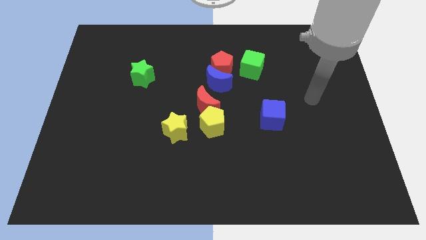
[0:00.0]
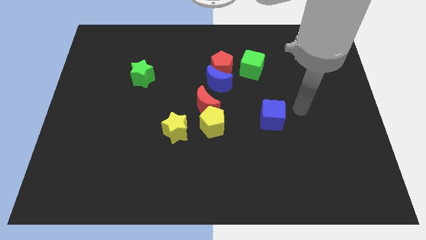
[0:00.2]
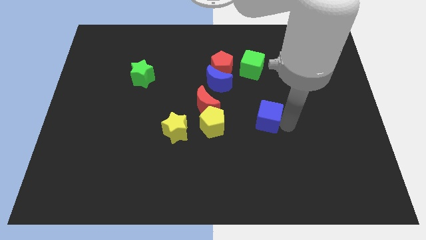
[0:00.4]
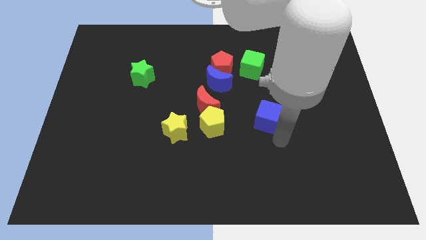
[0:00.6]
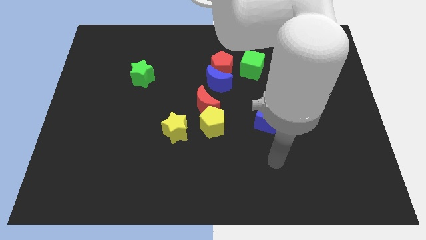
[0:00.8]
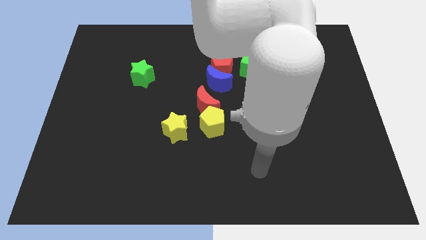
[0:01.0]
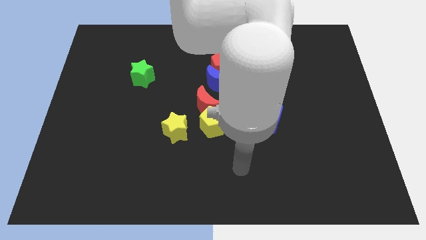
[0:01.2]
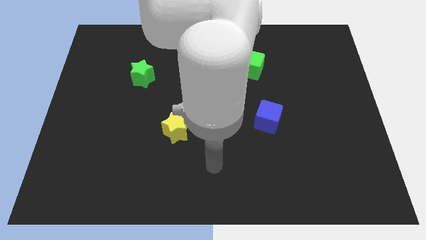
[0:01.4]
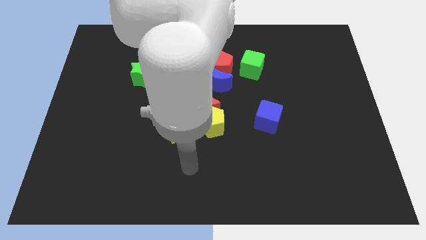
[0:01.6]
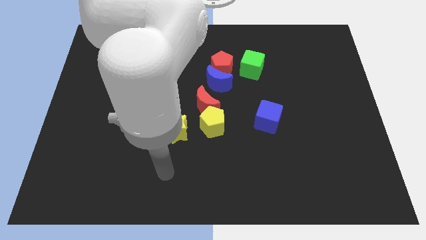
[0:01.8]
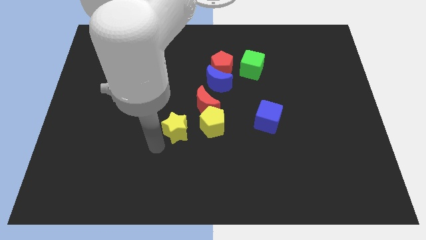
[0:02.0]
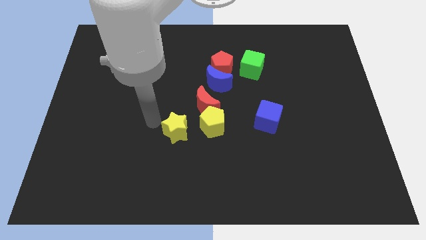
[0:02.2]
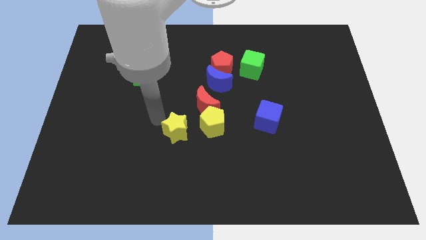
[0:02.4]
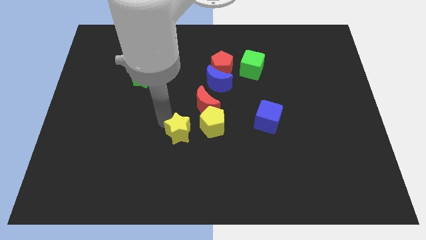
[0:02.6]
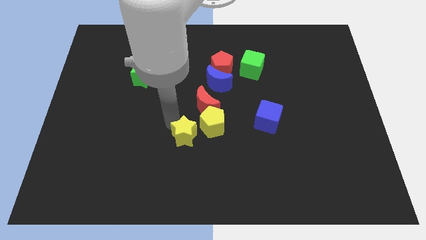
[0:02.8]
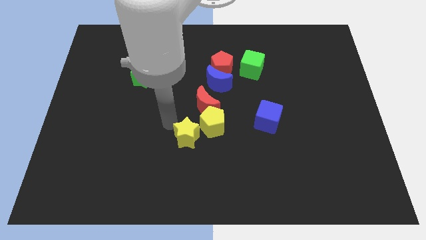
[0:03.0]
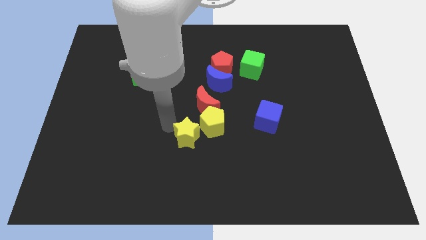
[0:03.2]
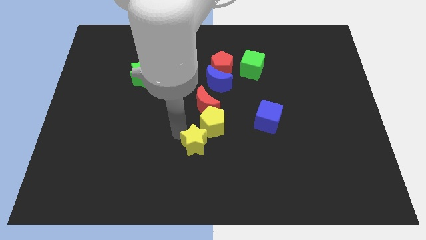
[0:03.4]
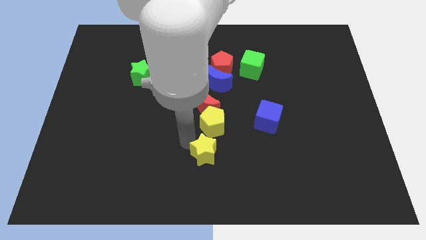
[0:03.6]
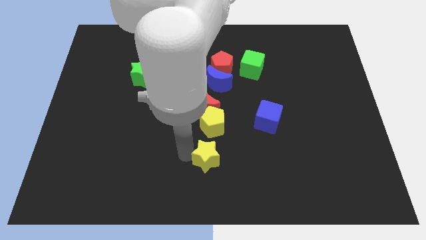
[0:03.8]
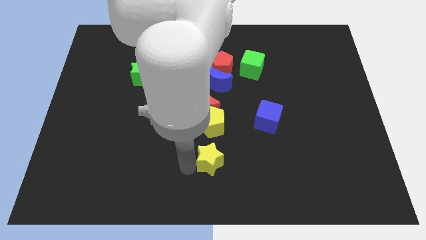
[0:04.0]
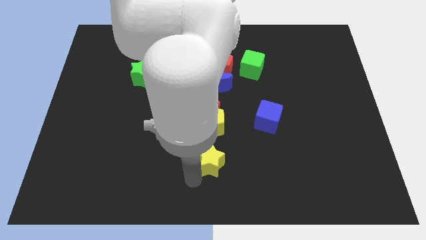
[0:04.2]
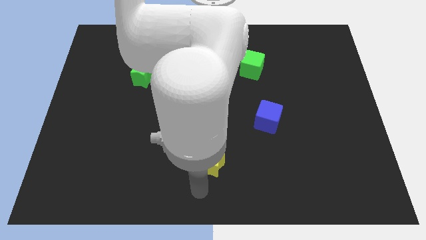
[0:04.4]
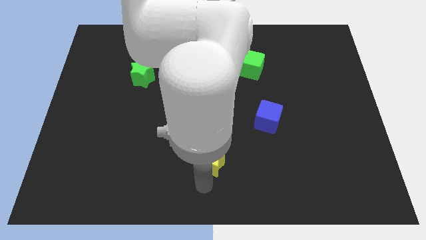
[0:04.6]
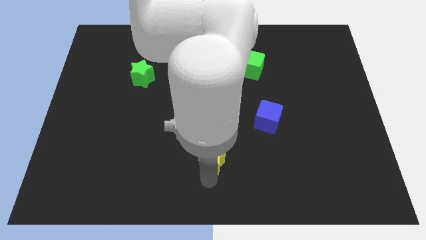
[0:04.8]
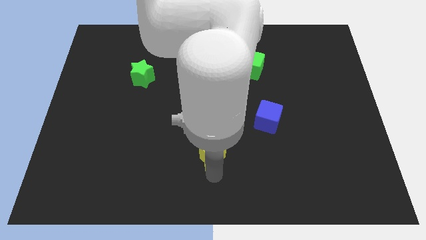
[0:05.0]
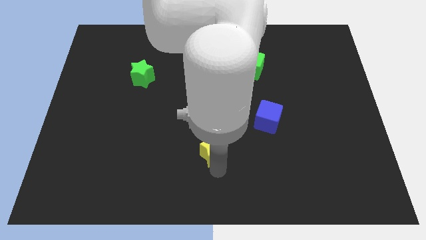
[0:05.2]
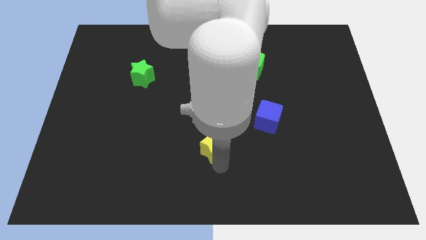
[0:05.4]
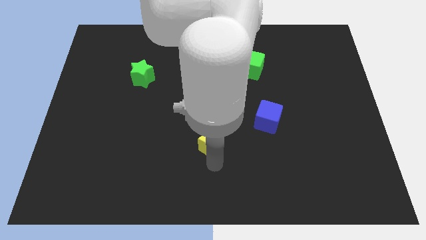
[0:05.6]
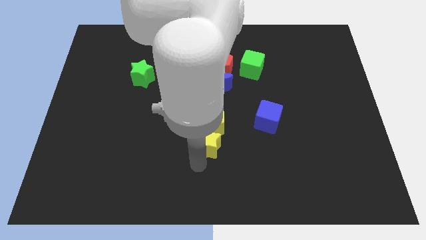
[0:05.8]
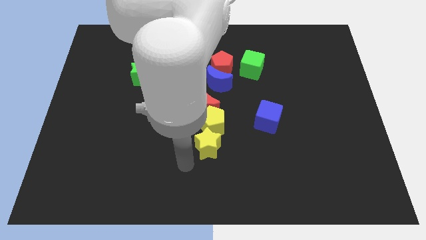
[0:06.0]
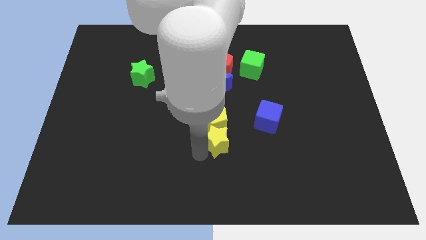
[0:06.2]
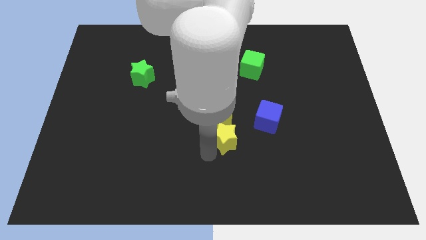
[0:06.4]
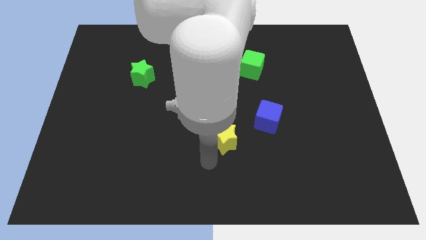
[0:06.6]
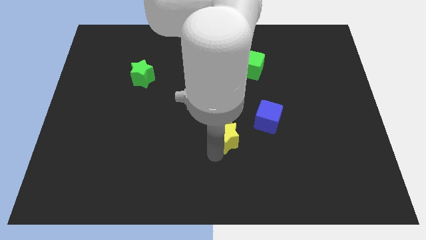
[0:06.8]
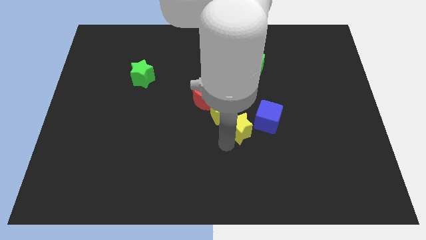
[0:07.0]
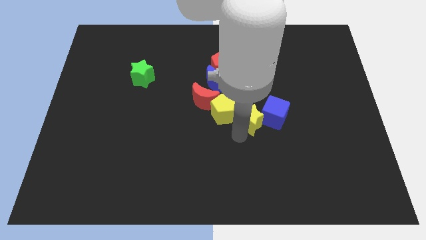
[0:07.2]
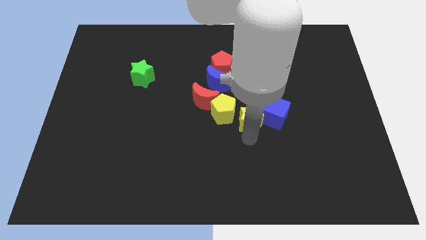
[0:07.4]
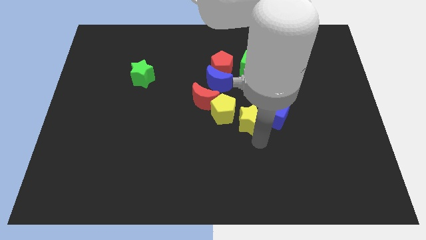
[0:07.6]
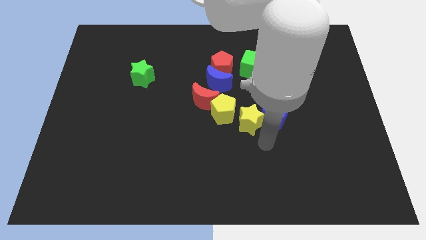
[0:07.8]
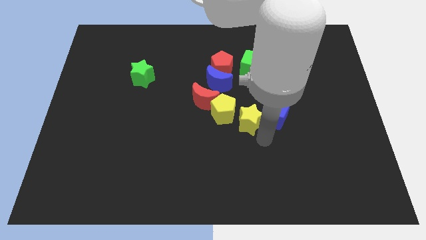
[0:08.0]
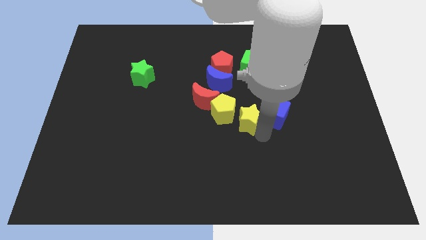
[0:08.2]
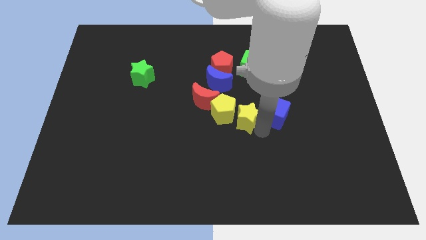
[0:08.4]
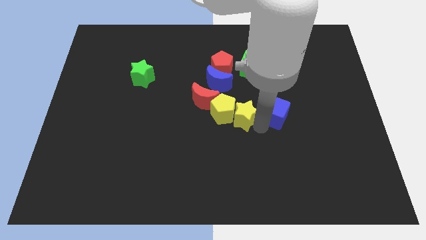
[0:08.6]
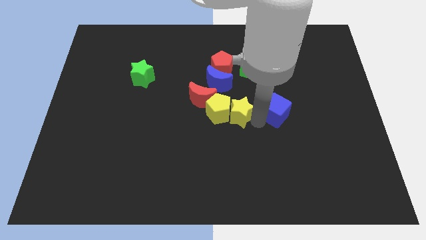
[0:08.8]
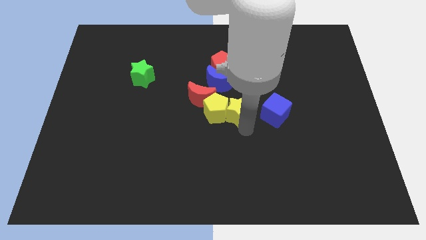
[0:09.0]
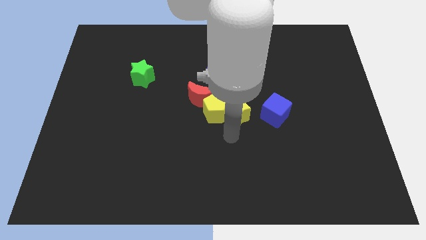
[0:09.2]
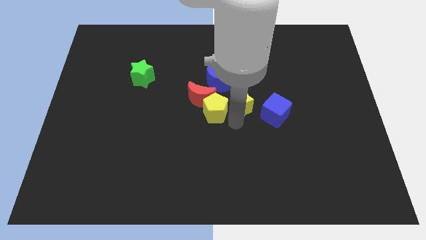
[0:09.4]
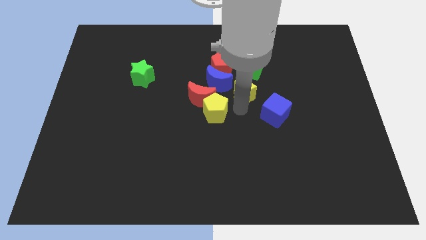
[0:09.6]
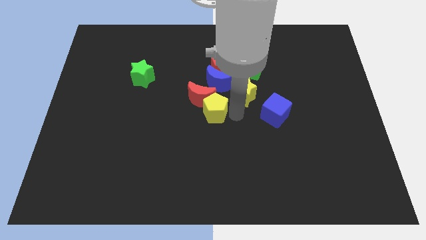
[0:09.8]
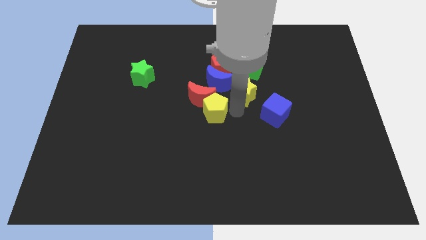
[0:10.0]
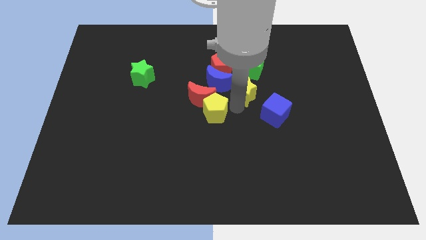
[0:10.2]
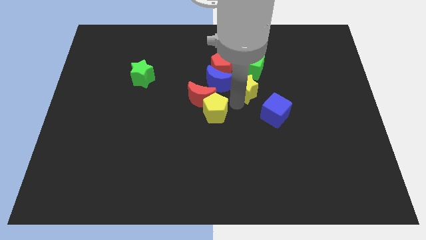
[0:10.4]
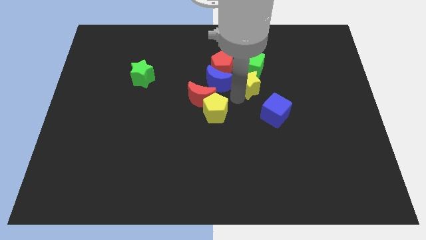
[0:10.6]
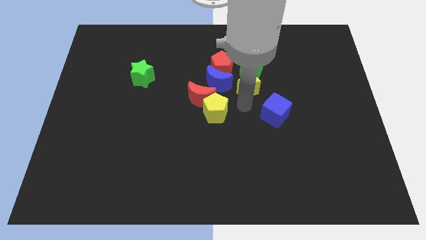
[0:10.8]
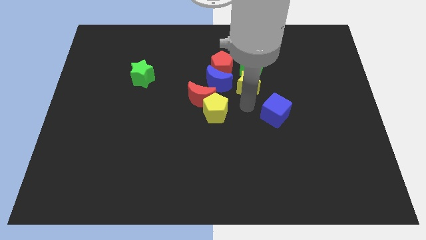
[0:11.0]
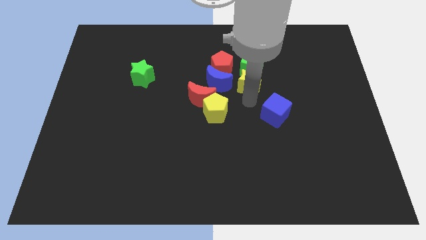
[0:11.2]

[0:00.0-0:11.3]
move the yellow star close to the green cube

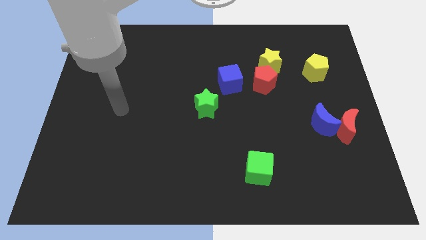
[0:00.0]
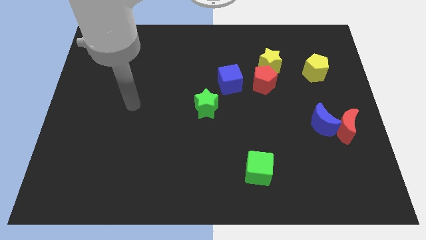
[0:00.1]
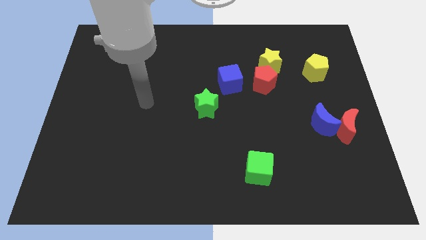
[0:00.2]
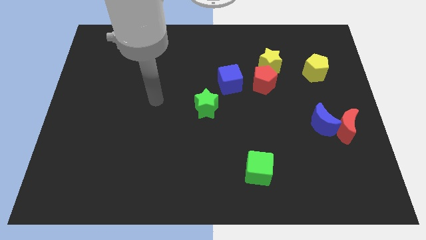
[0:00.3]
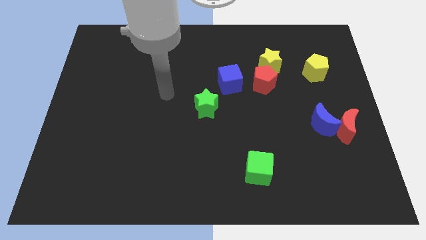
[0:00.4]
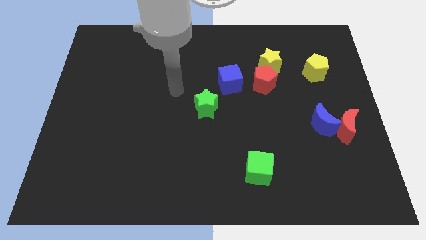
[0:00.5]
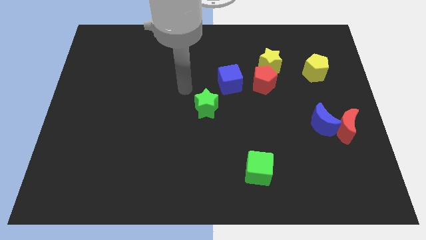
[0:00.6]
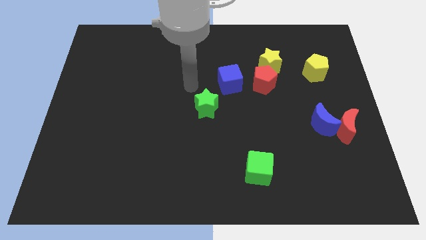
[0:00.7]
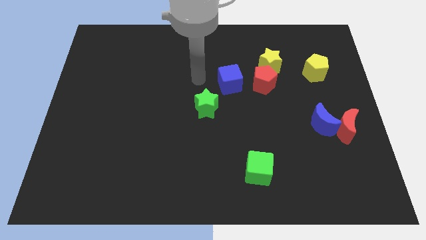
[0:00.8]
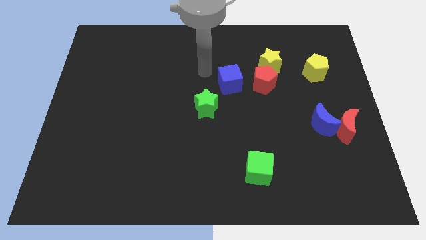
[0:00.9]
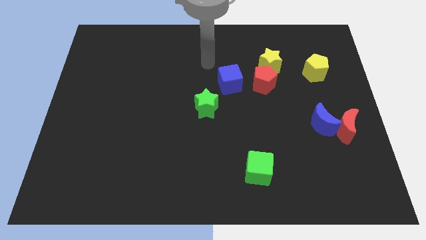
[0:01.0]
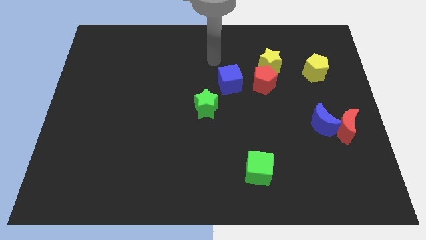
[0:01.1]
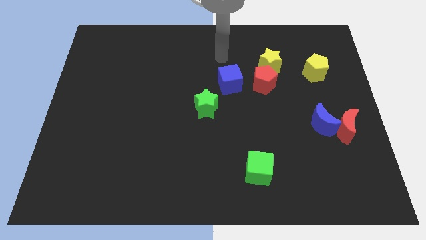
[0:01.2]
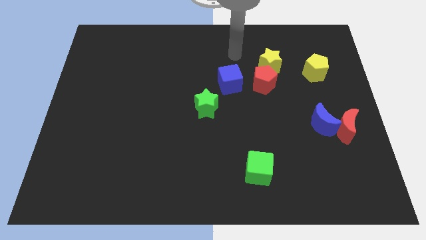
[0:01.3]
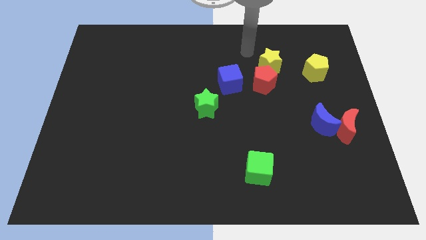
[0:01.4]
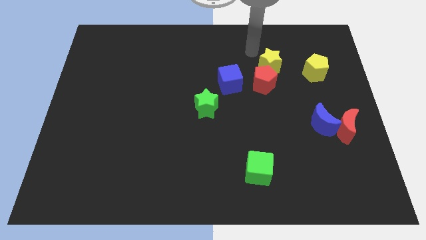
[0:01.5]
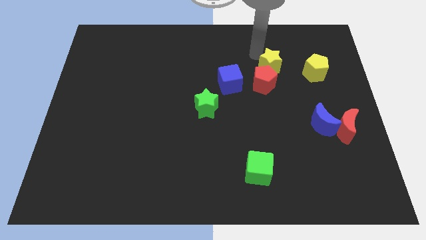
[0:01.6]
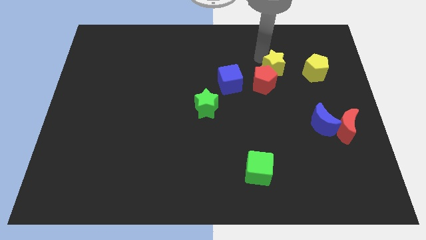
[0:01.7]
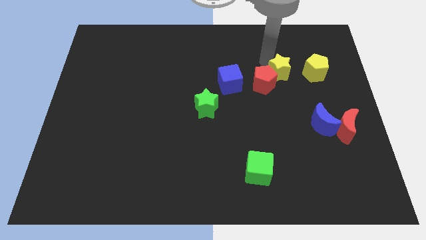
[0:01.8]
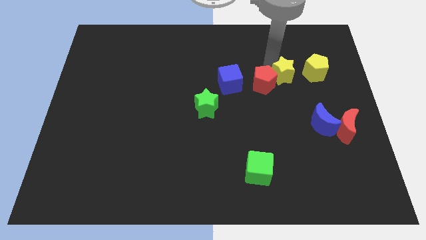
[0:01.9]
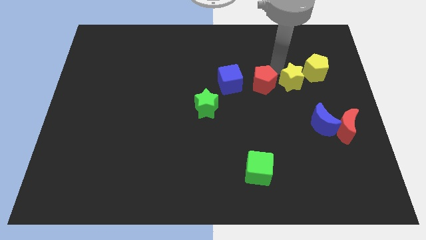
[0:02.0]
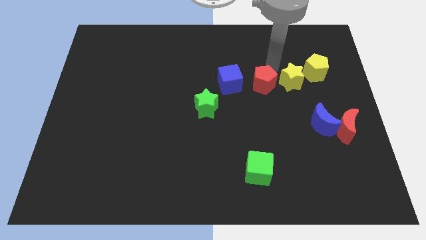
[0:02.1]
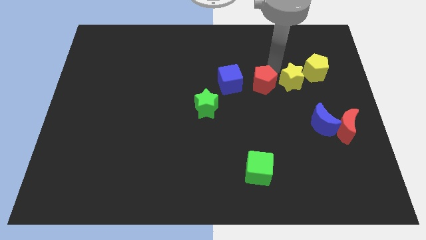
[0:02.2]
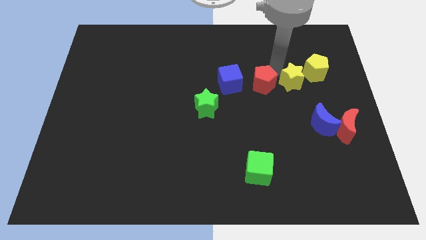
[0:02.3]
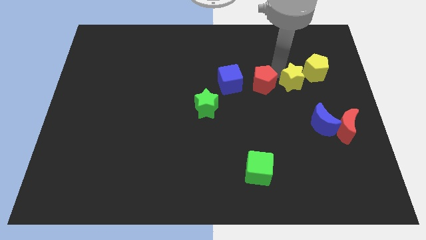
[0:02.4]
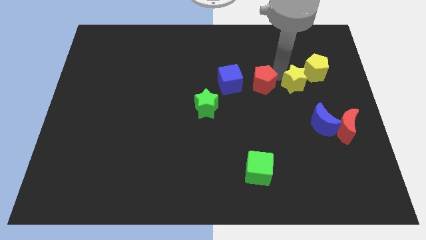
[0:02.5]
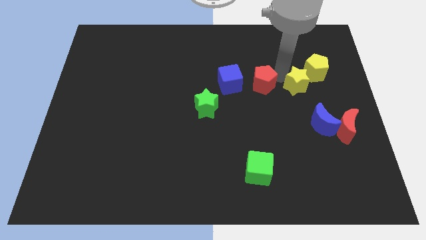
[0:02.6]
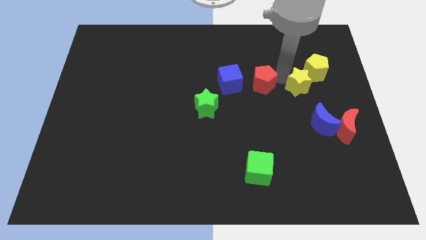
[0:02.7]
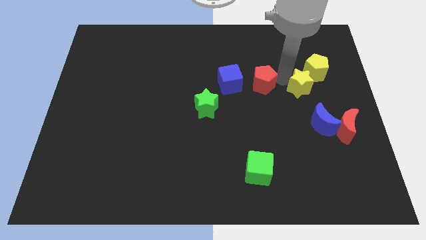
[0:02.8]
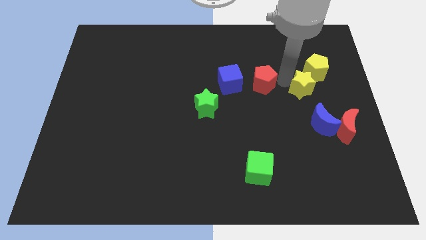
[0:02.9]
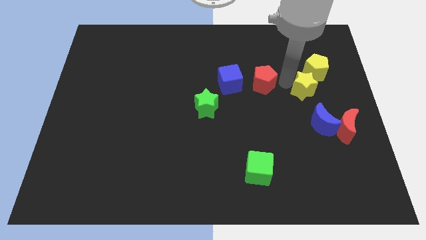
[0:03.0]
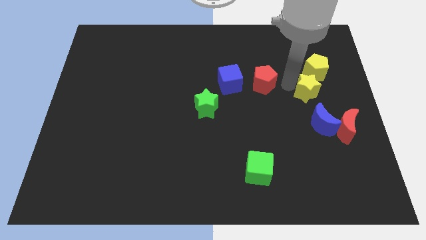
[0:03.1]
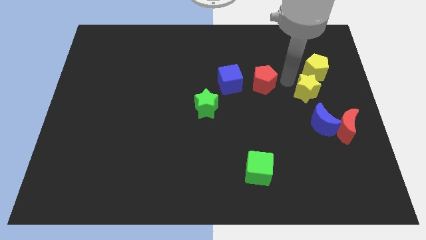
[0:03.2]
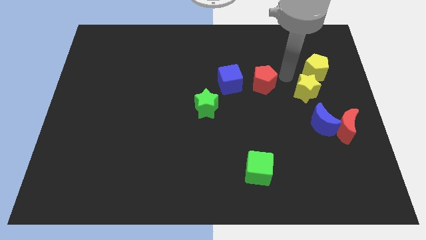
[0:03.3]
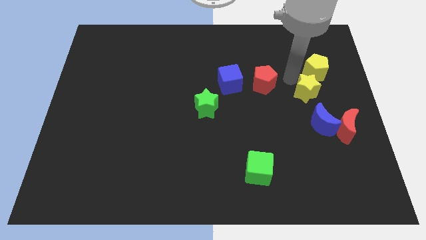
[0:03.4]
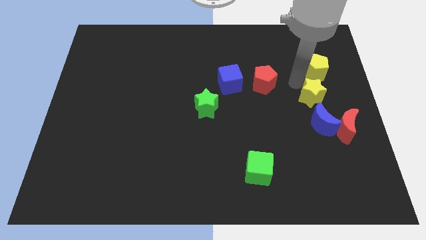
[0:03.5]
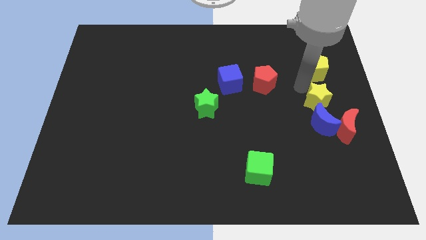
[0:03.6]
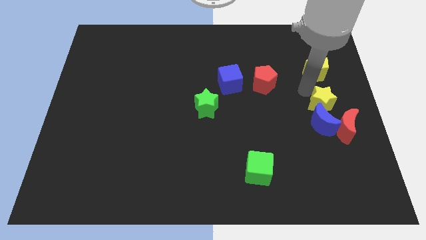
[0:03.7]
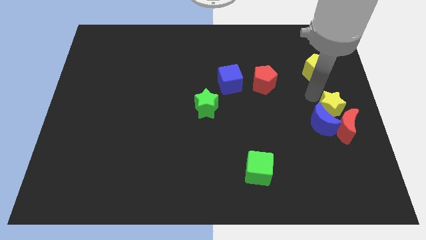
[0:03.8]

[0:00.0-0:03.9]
push the yellow star close to the red moon
